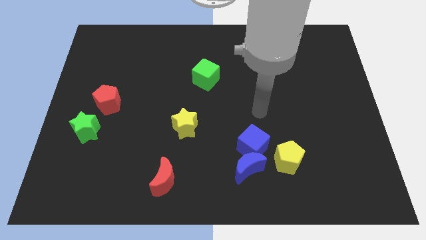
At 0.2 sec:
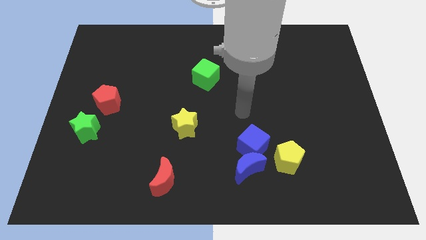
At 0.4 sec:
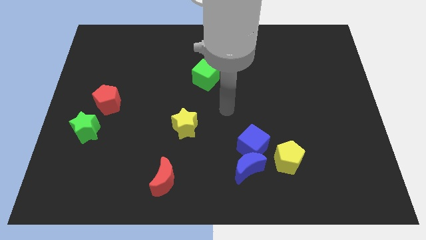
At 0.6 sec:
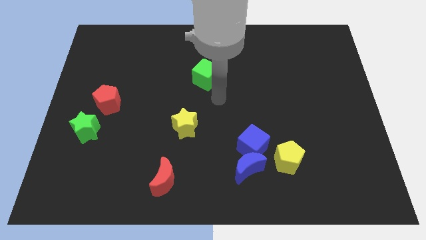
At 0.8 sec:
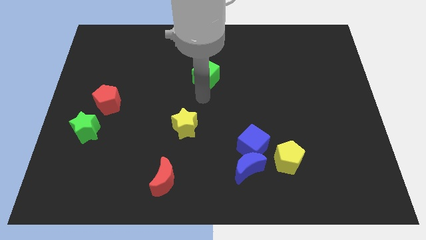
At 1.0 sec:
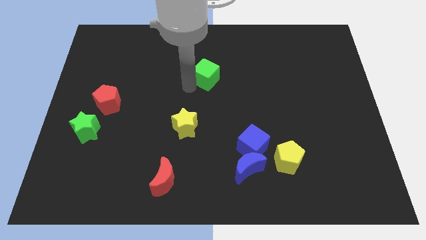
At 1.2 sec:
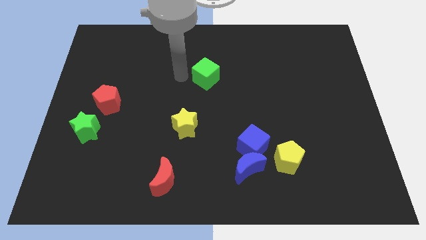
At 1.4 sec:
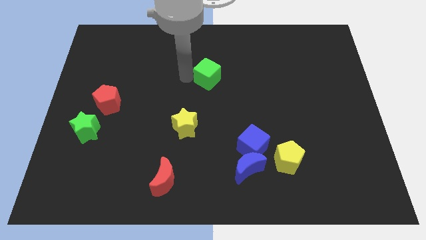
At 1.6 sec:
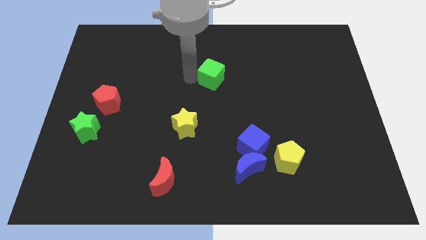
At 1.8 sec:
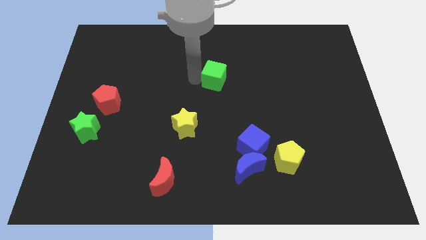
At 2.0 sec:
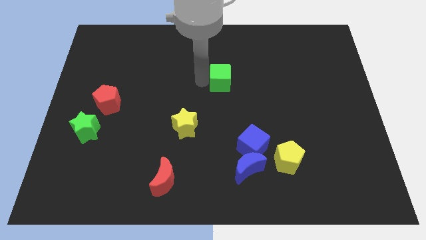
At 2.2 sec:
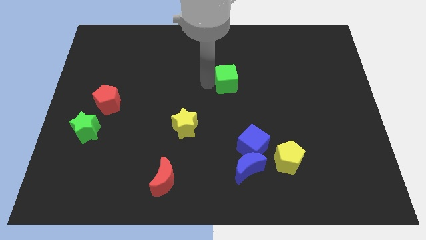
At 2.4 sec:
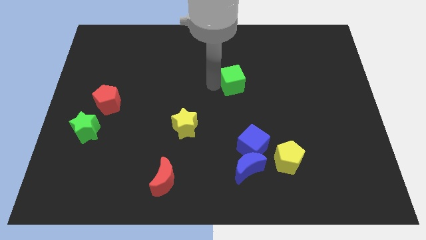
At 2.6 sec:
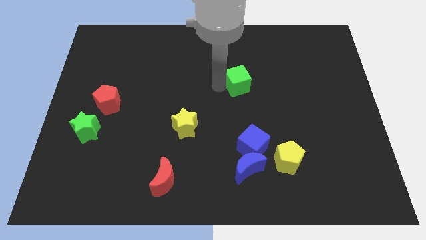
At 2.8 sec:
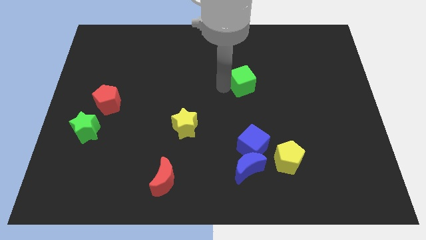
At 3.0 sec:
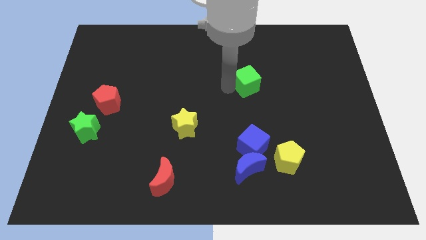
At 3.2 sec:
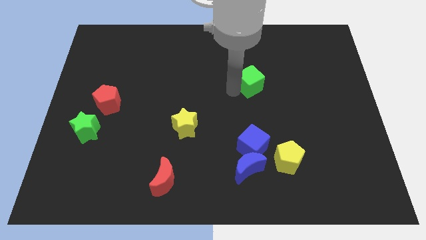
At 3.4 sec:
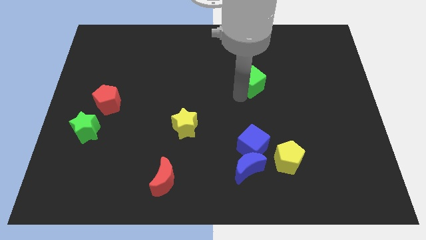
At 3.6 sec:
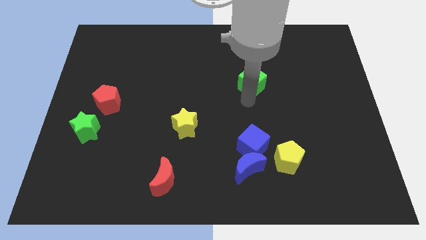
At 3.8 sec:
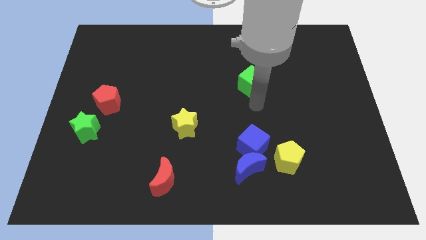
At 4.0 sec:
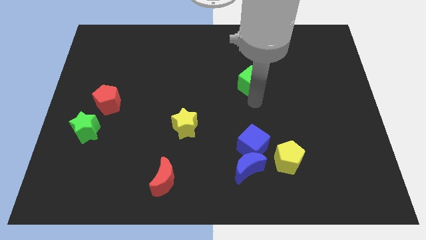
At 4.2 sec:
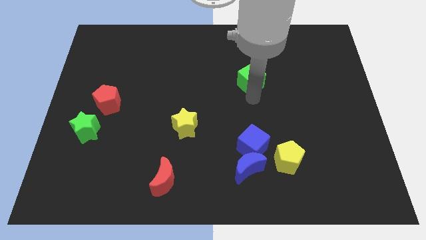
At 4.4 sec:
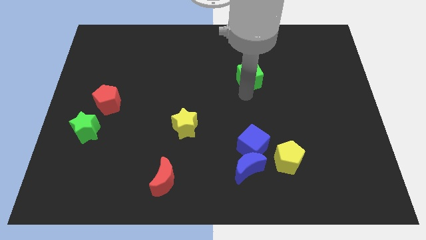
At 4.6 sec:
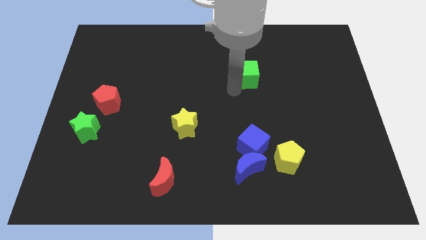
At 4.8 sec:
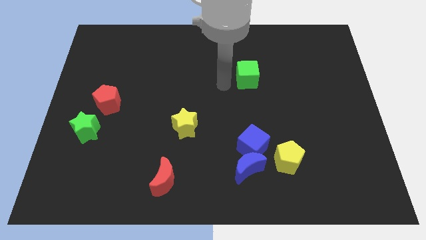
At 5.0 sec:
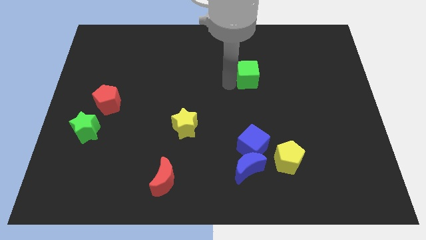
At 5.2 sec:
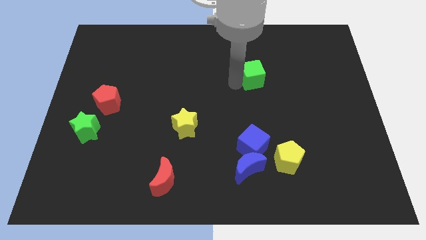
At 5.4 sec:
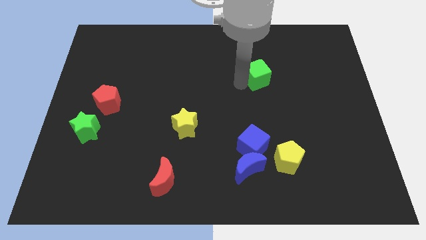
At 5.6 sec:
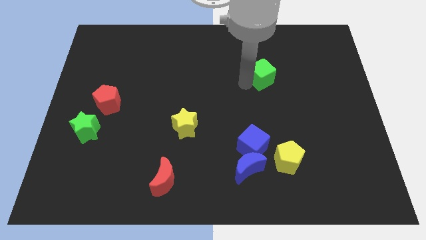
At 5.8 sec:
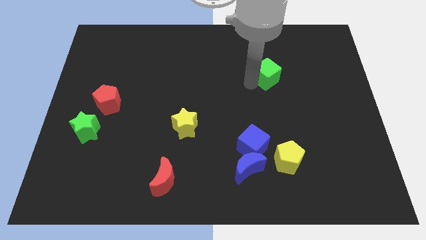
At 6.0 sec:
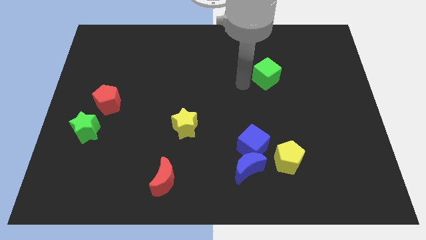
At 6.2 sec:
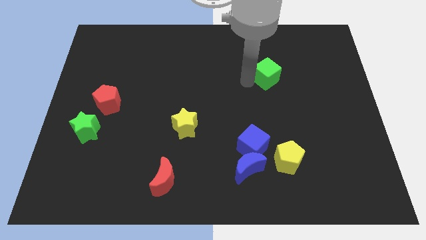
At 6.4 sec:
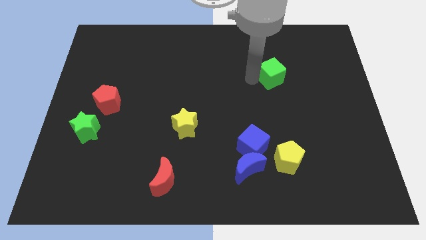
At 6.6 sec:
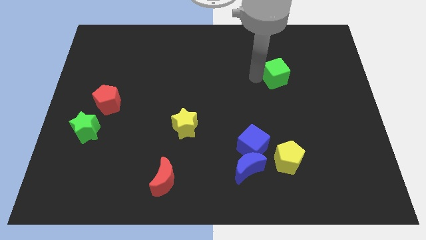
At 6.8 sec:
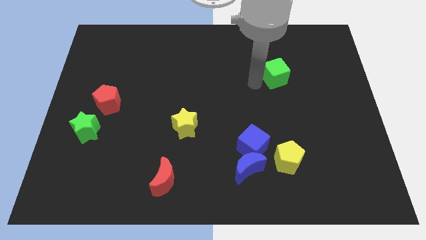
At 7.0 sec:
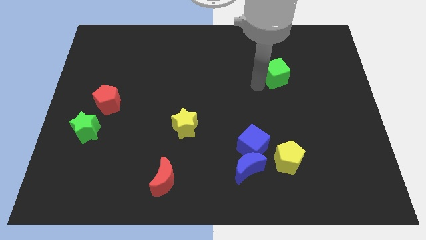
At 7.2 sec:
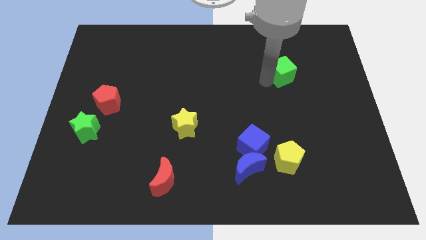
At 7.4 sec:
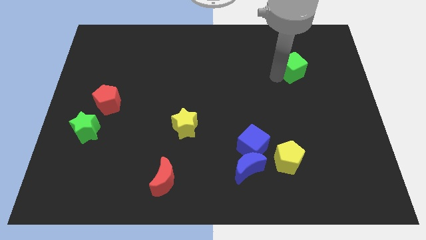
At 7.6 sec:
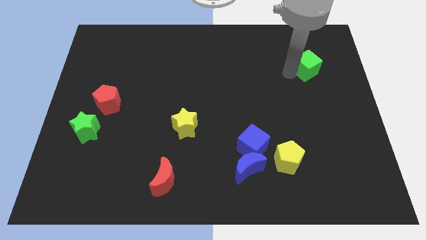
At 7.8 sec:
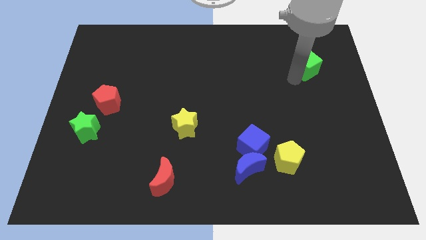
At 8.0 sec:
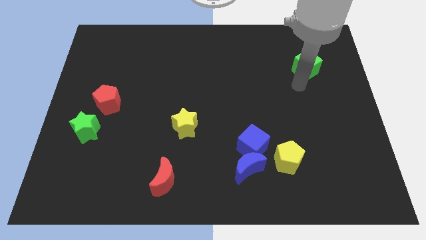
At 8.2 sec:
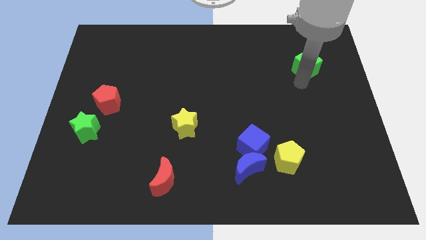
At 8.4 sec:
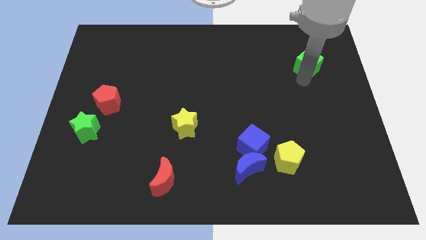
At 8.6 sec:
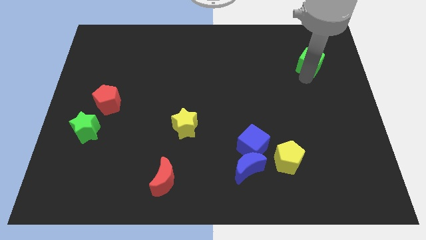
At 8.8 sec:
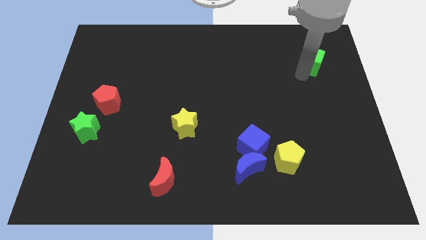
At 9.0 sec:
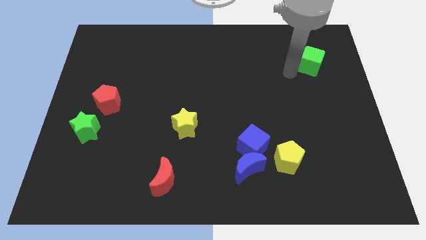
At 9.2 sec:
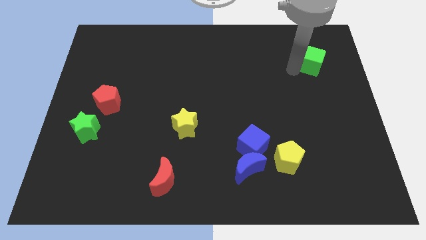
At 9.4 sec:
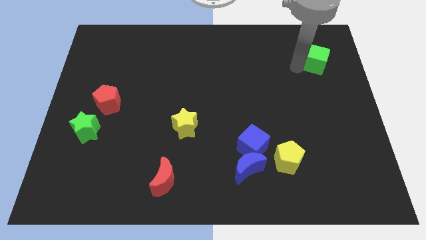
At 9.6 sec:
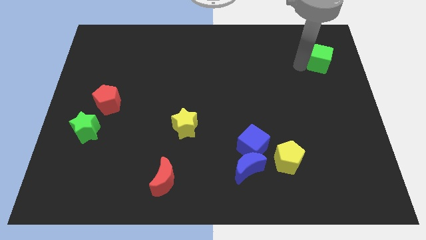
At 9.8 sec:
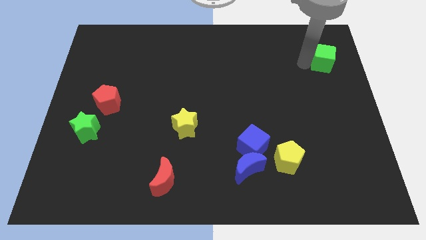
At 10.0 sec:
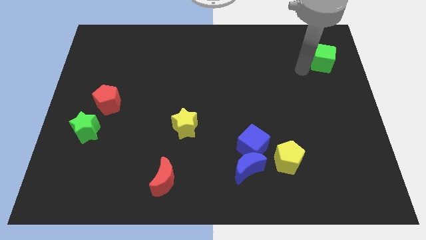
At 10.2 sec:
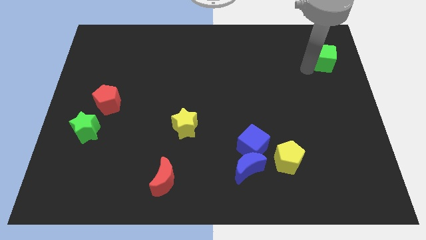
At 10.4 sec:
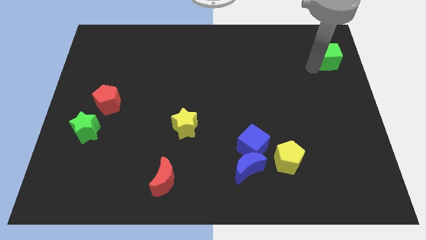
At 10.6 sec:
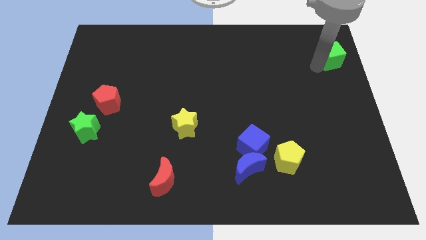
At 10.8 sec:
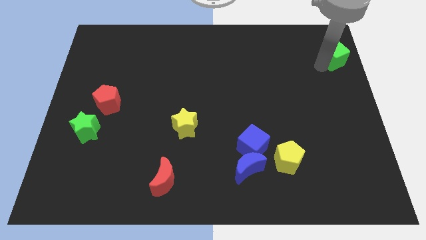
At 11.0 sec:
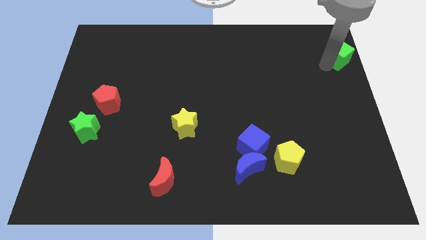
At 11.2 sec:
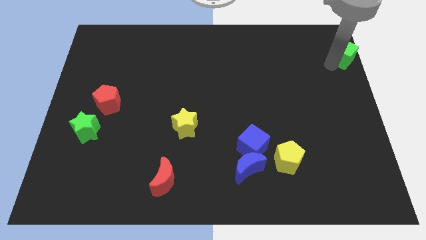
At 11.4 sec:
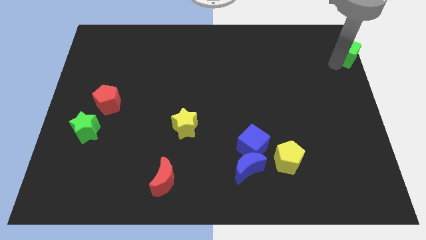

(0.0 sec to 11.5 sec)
slide the green cube to the top right corner
